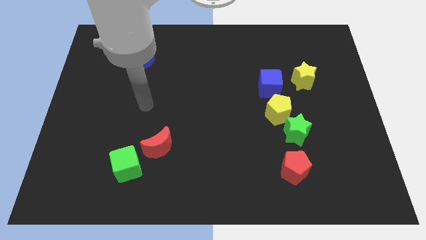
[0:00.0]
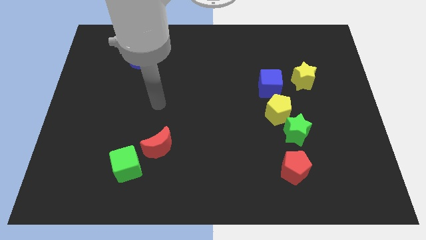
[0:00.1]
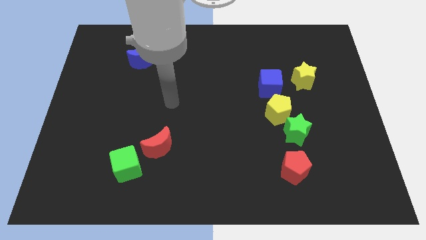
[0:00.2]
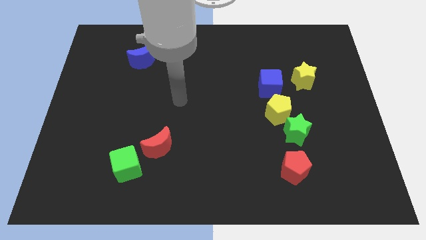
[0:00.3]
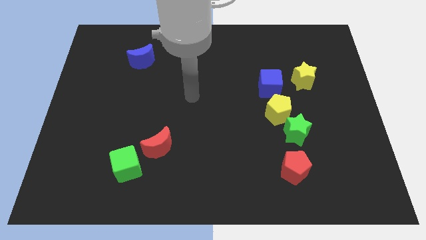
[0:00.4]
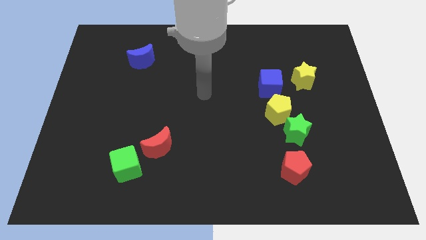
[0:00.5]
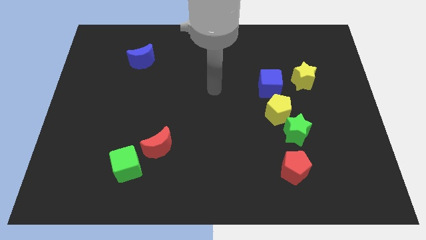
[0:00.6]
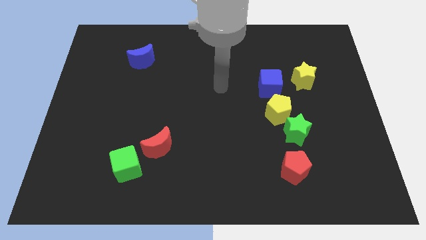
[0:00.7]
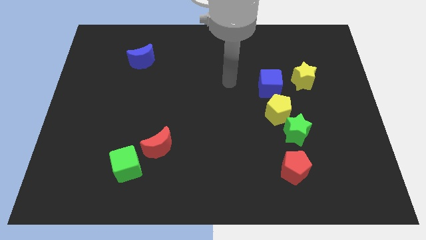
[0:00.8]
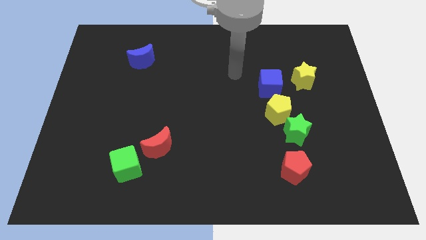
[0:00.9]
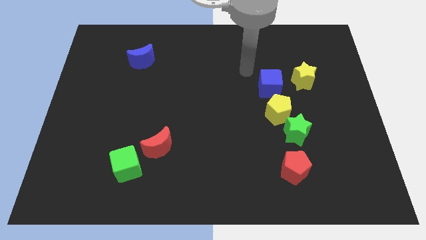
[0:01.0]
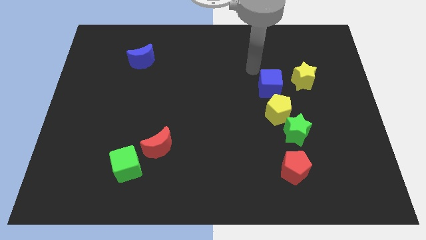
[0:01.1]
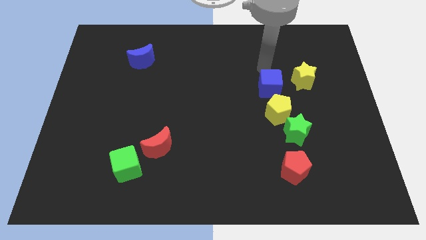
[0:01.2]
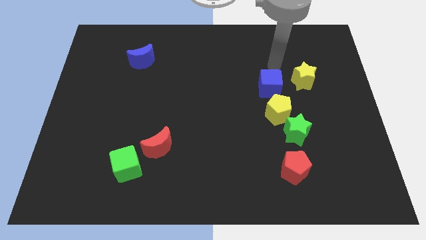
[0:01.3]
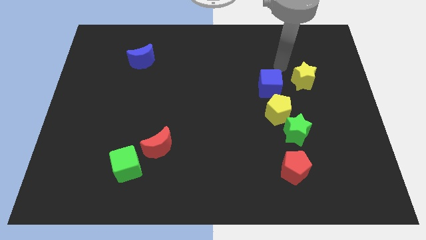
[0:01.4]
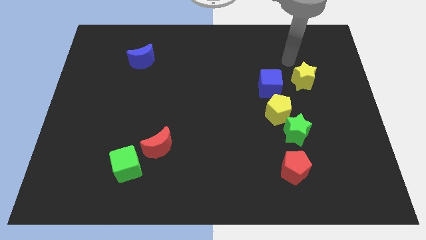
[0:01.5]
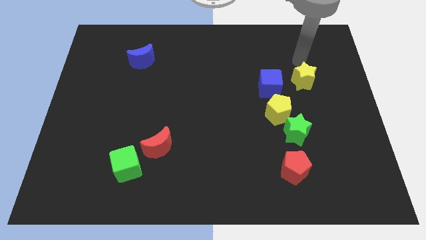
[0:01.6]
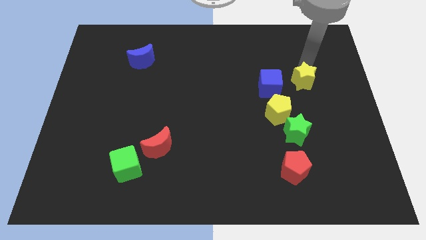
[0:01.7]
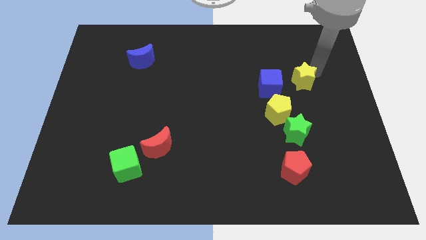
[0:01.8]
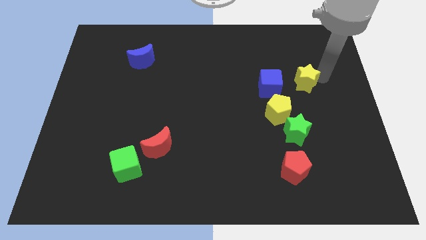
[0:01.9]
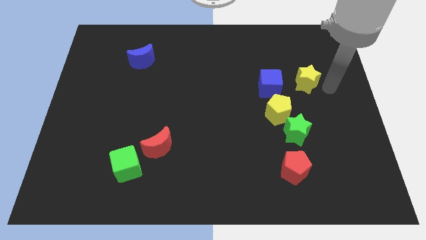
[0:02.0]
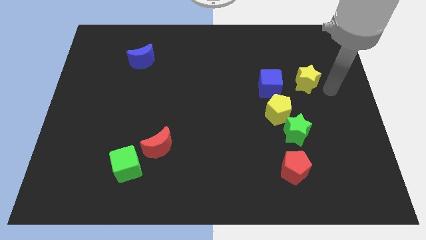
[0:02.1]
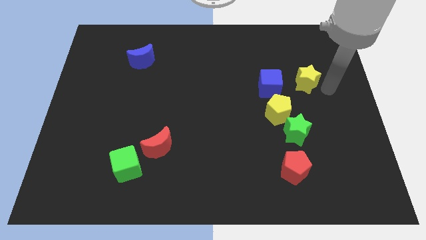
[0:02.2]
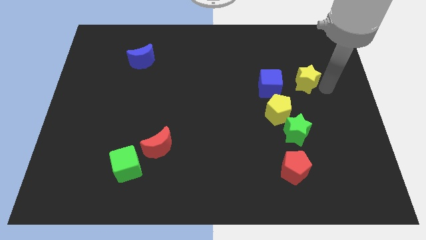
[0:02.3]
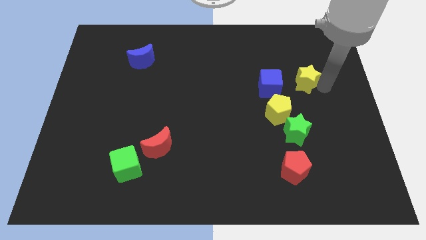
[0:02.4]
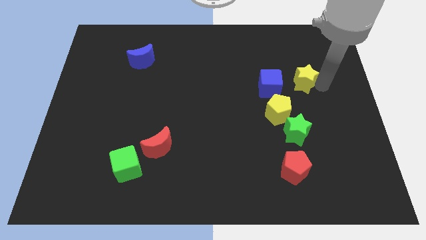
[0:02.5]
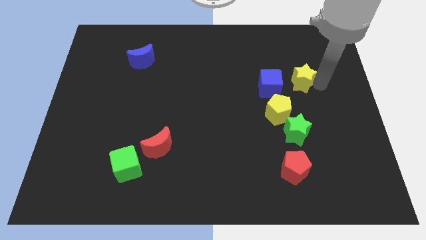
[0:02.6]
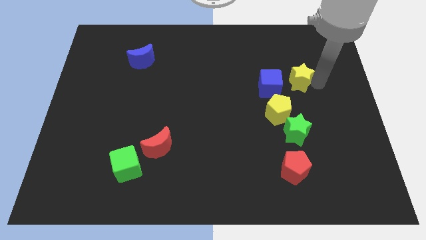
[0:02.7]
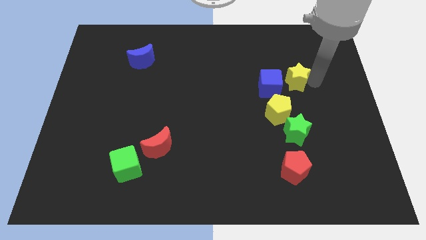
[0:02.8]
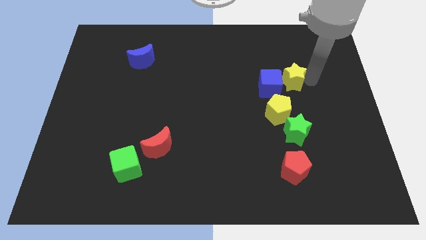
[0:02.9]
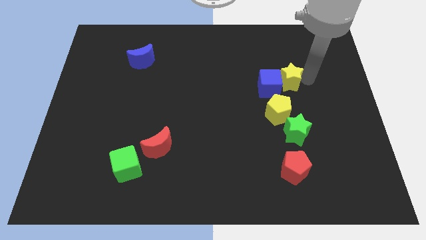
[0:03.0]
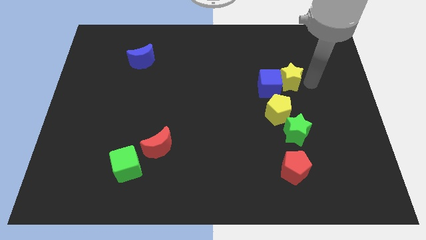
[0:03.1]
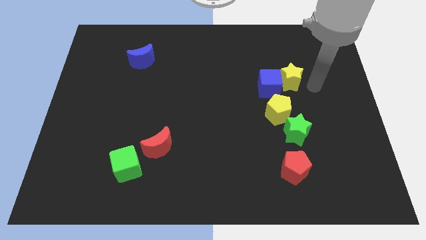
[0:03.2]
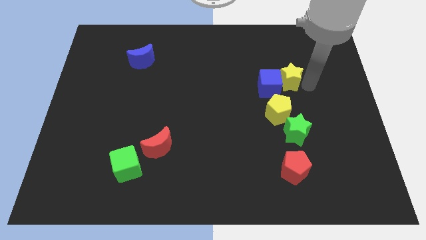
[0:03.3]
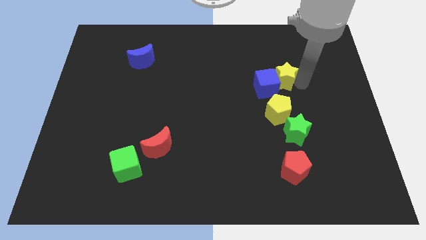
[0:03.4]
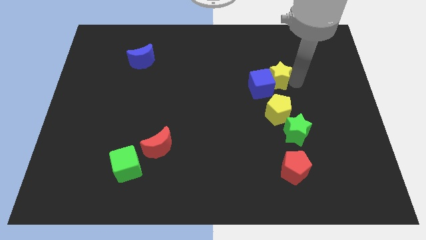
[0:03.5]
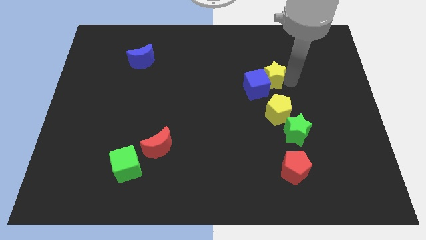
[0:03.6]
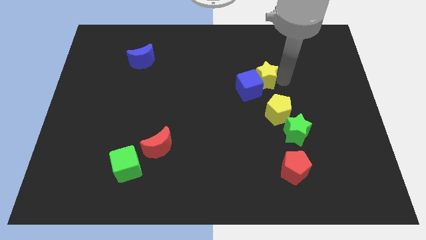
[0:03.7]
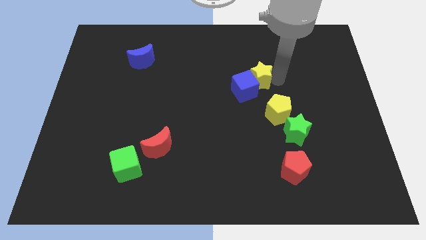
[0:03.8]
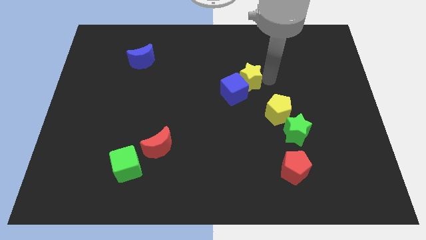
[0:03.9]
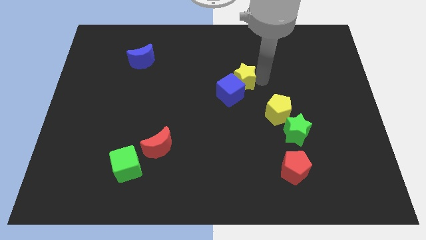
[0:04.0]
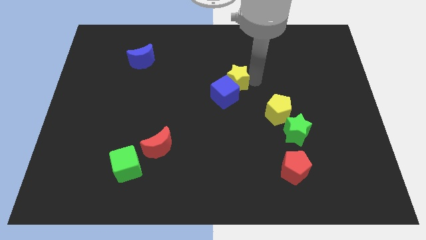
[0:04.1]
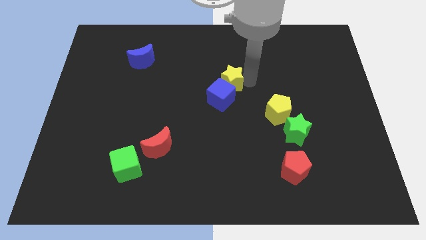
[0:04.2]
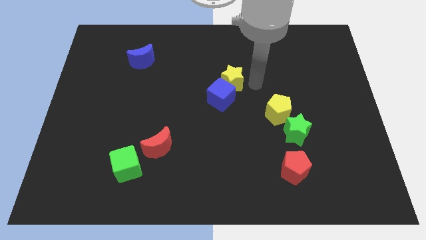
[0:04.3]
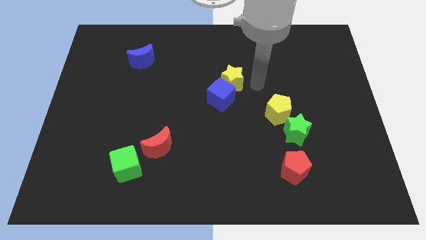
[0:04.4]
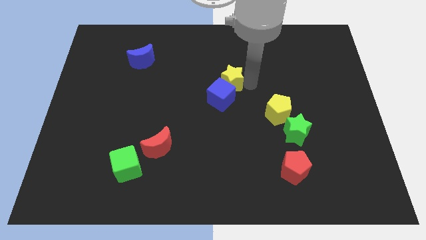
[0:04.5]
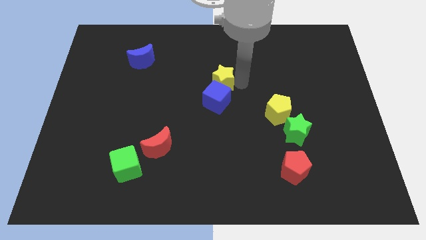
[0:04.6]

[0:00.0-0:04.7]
move the yellow star to the left

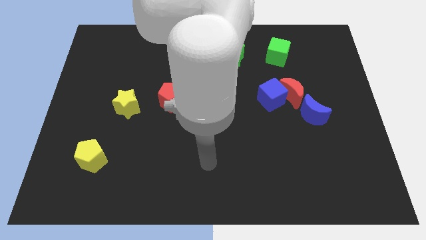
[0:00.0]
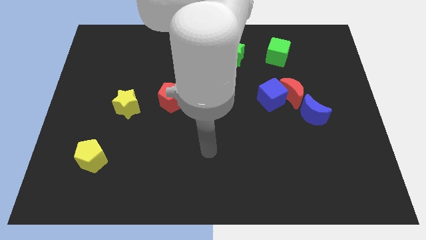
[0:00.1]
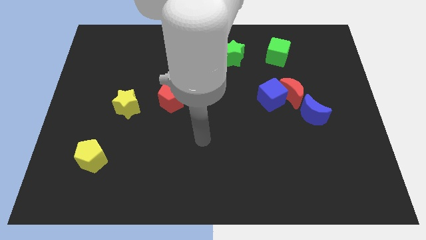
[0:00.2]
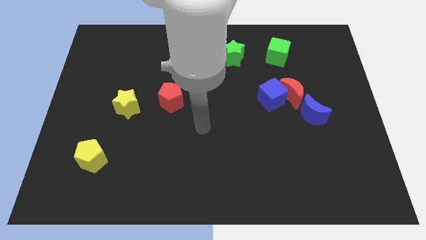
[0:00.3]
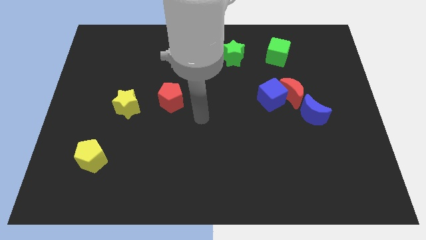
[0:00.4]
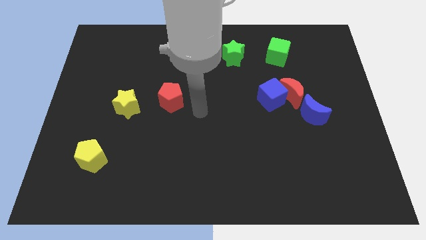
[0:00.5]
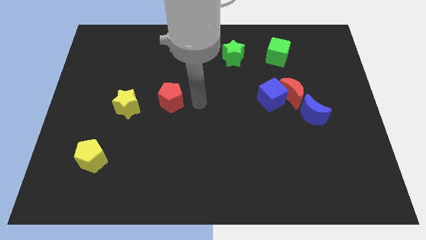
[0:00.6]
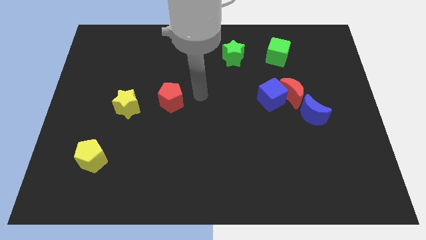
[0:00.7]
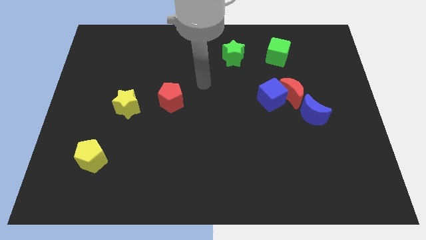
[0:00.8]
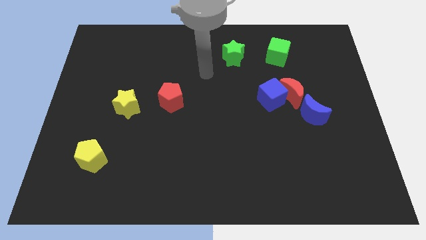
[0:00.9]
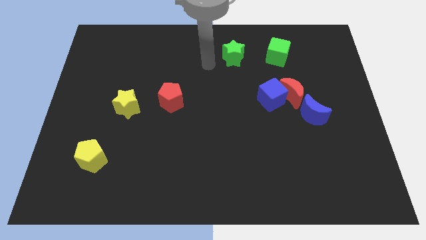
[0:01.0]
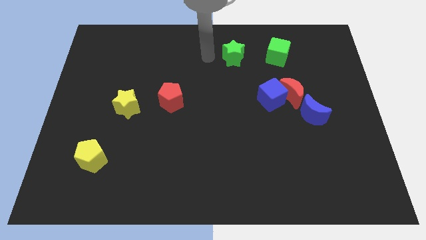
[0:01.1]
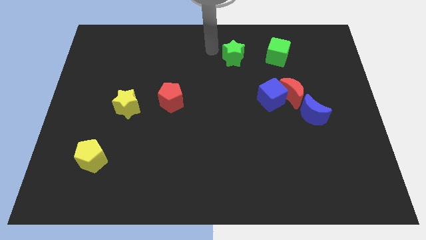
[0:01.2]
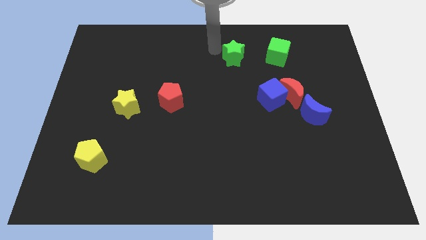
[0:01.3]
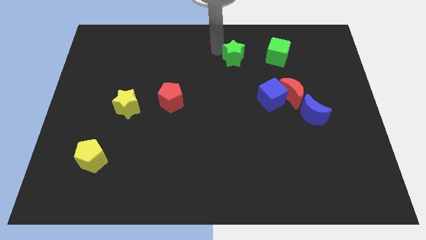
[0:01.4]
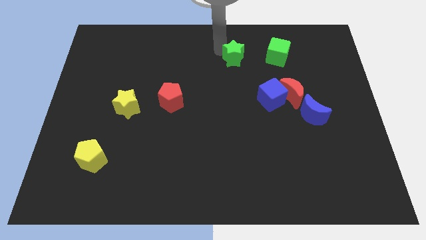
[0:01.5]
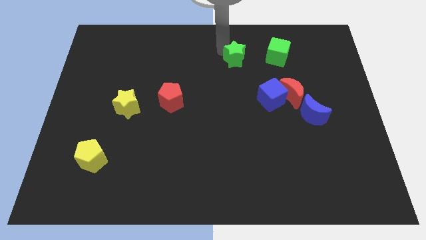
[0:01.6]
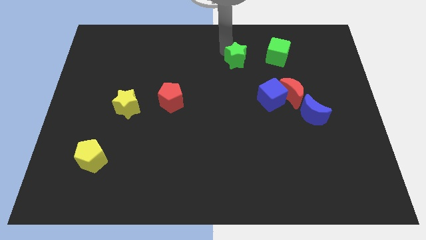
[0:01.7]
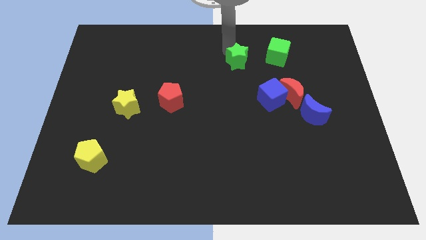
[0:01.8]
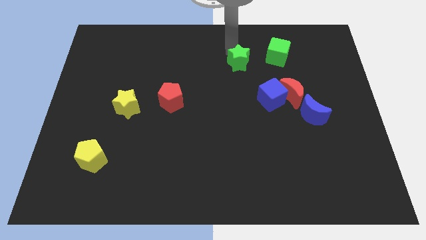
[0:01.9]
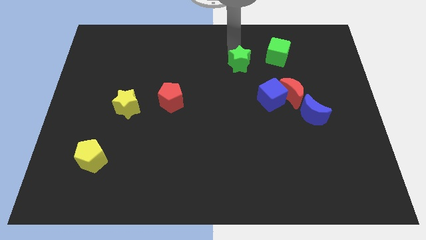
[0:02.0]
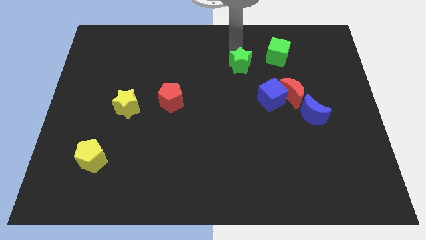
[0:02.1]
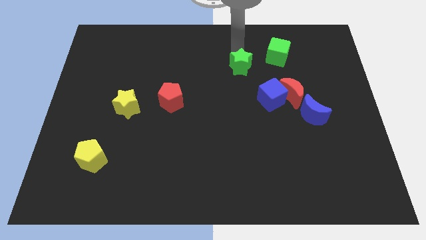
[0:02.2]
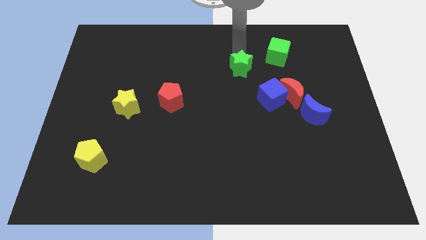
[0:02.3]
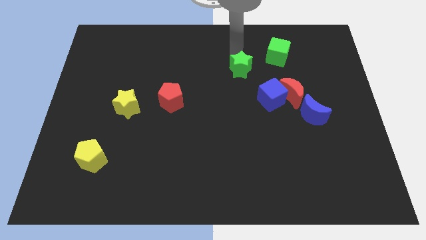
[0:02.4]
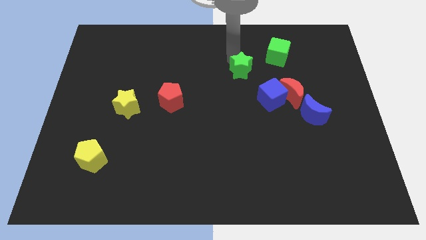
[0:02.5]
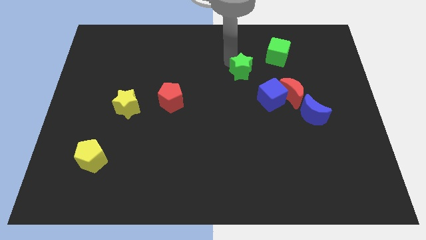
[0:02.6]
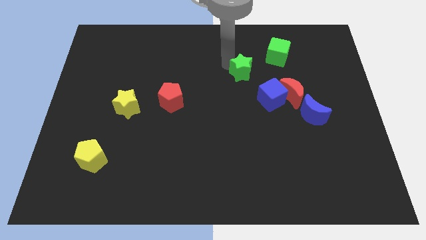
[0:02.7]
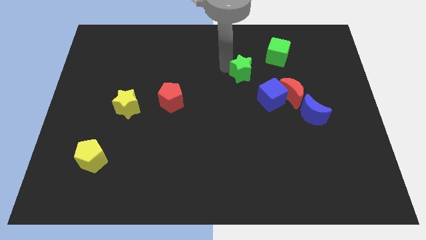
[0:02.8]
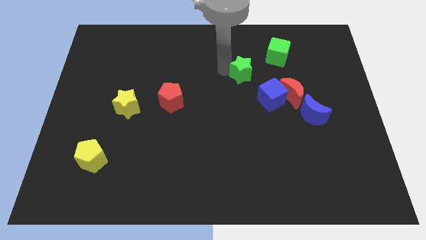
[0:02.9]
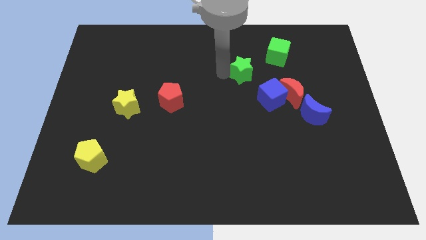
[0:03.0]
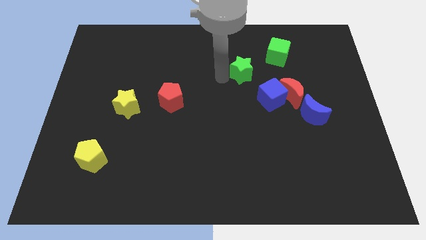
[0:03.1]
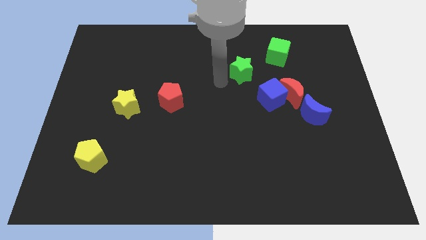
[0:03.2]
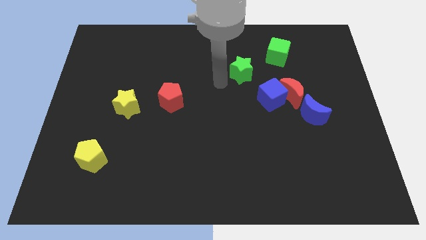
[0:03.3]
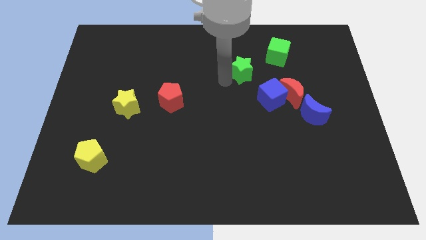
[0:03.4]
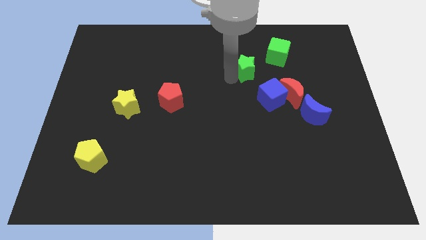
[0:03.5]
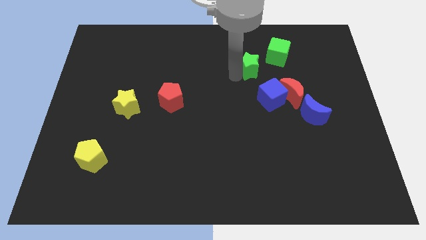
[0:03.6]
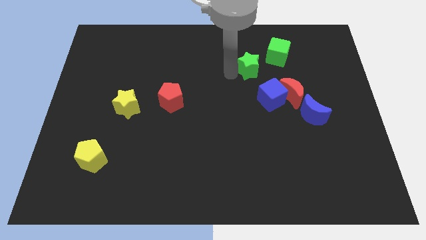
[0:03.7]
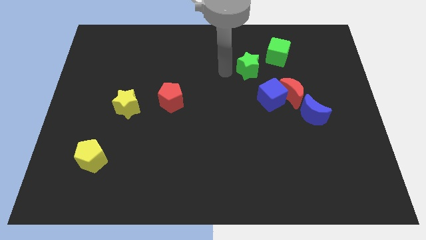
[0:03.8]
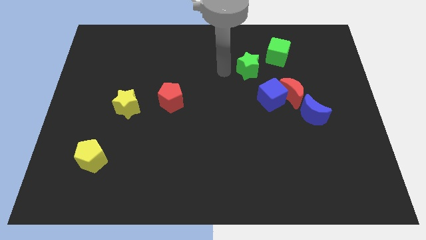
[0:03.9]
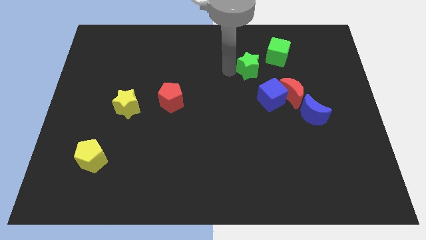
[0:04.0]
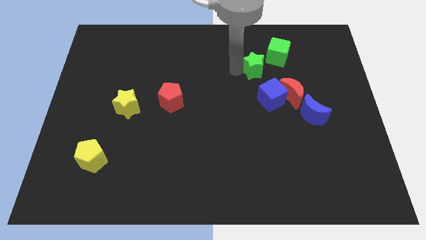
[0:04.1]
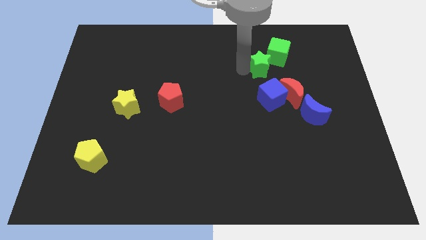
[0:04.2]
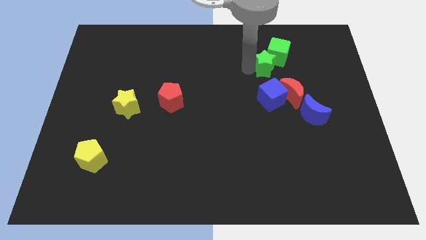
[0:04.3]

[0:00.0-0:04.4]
slightly push the green star right
